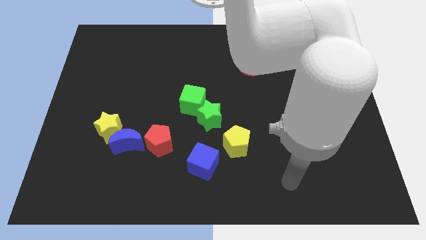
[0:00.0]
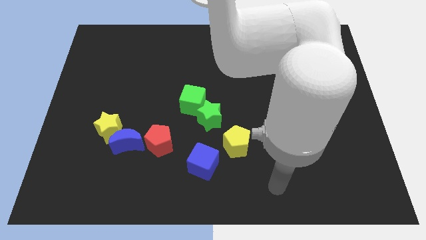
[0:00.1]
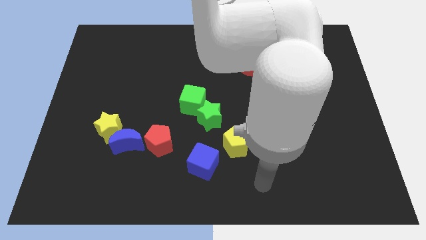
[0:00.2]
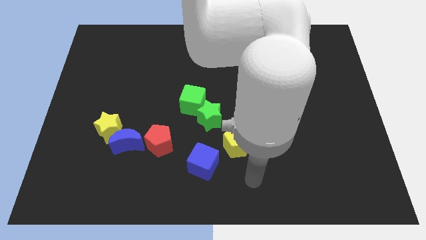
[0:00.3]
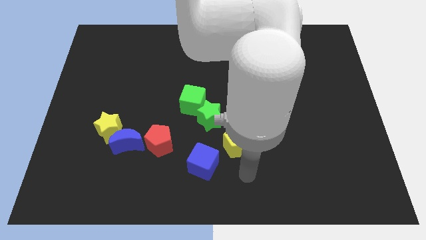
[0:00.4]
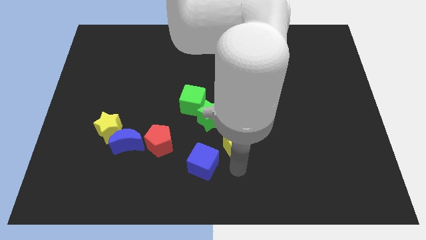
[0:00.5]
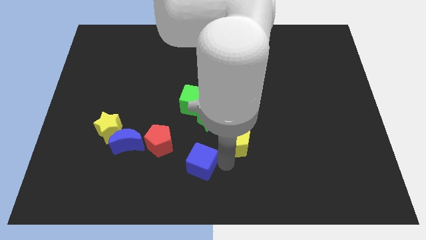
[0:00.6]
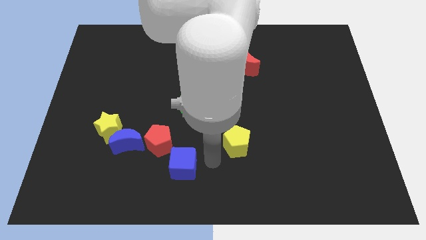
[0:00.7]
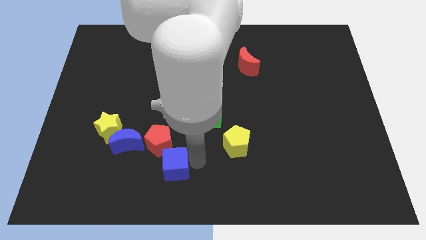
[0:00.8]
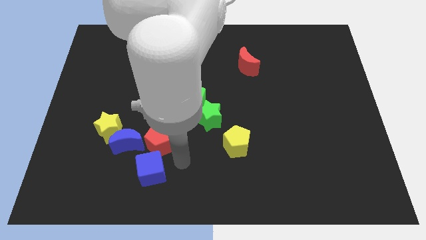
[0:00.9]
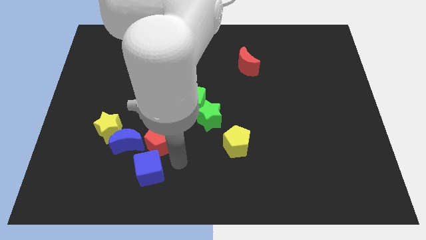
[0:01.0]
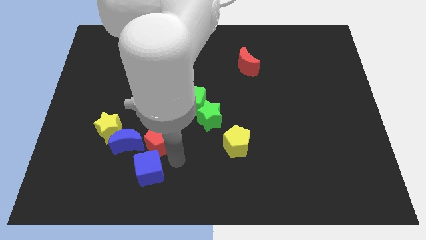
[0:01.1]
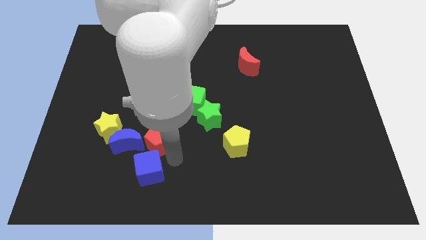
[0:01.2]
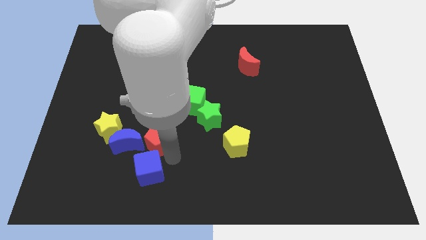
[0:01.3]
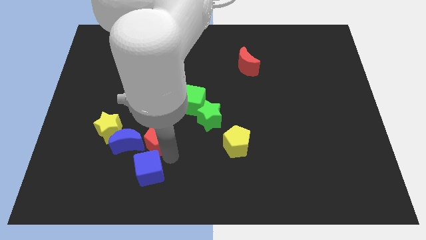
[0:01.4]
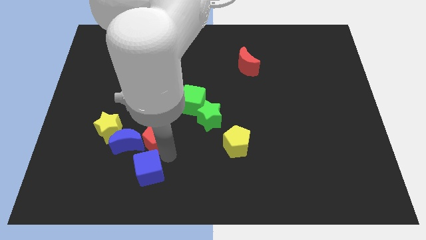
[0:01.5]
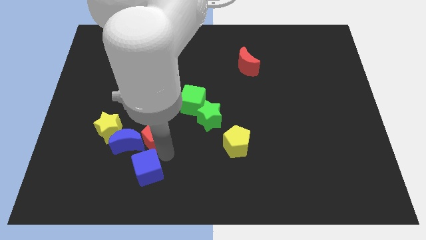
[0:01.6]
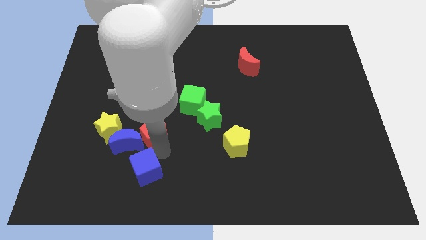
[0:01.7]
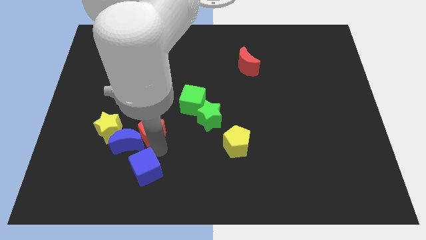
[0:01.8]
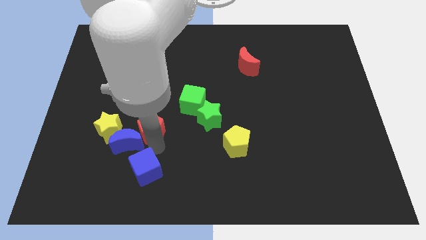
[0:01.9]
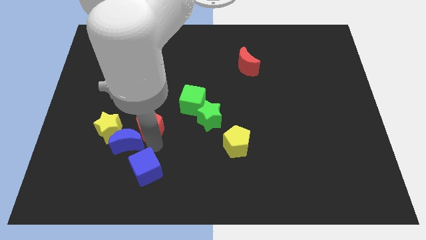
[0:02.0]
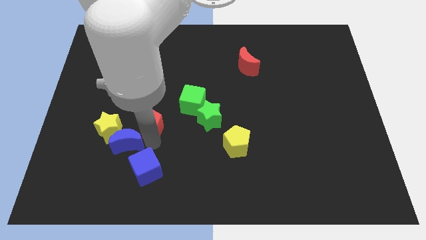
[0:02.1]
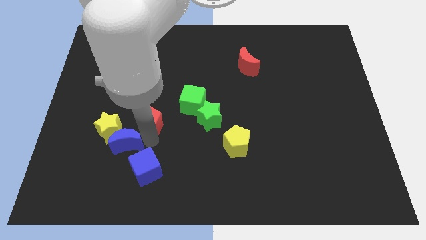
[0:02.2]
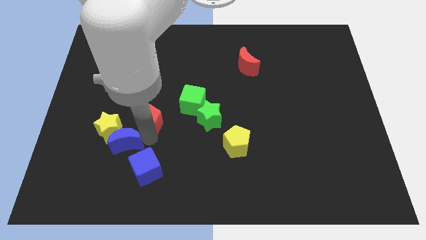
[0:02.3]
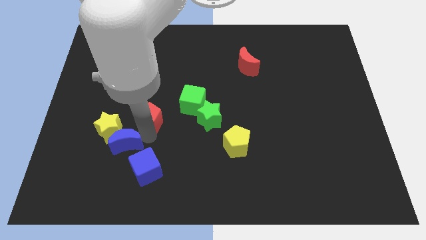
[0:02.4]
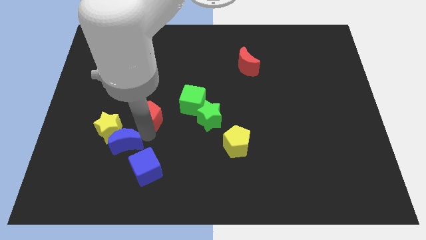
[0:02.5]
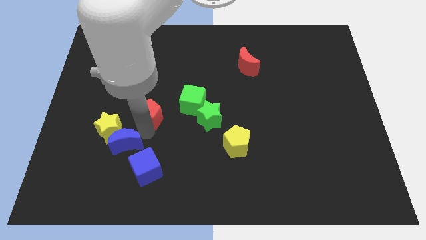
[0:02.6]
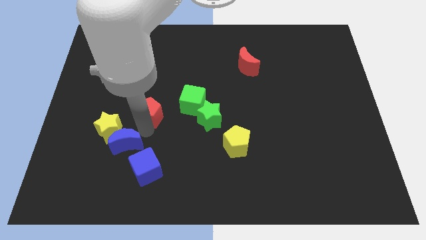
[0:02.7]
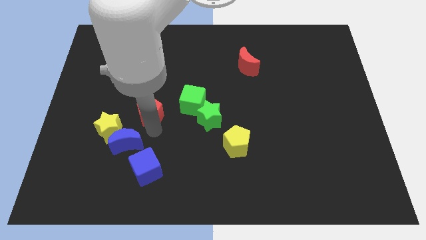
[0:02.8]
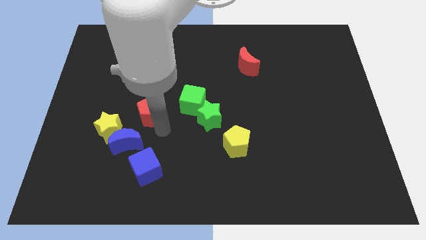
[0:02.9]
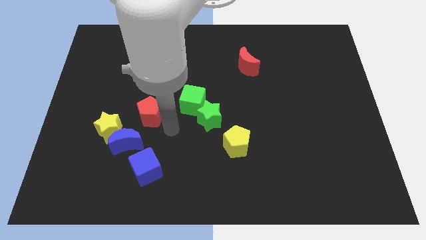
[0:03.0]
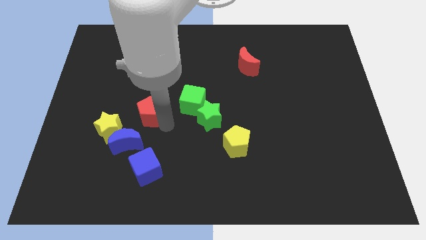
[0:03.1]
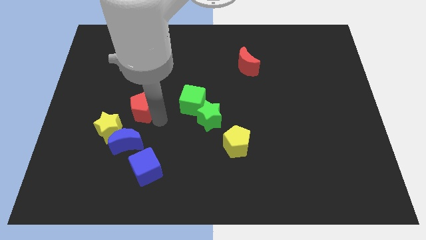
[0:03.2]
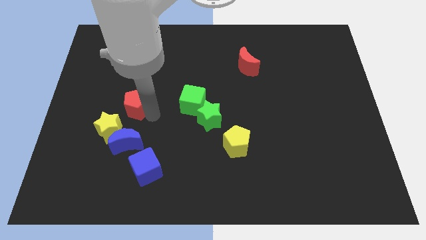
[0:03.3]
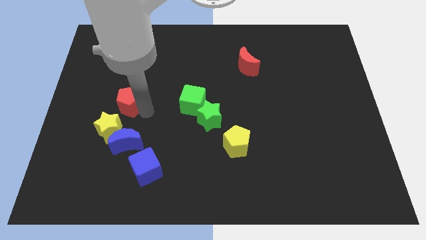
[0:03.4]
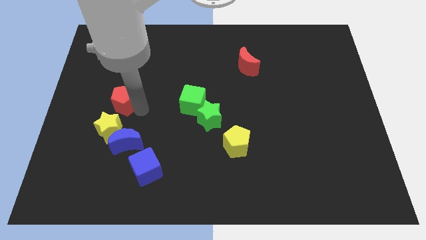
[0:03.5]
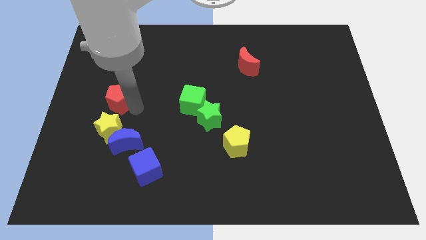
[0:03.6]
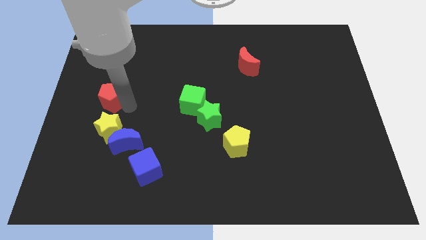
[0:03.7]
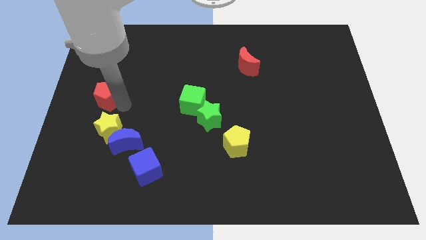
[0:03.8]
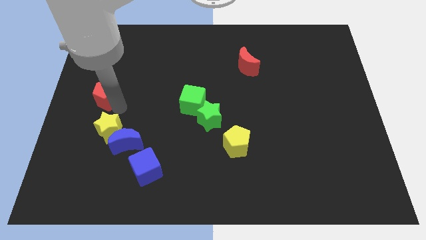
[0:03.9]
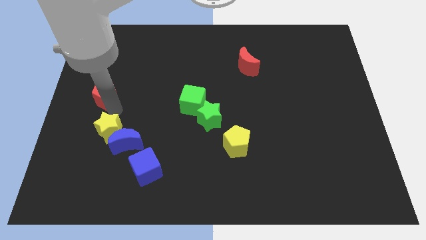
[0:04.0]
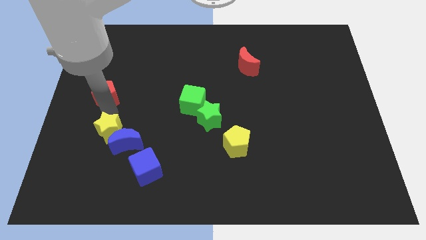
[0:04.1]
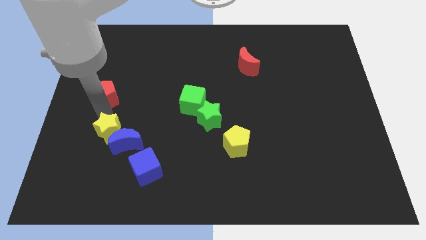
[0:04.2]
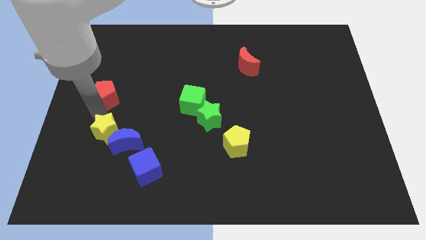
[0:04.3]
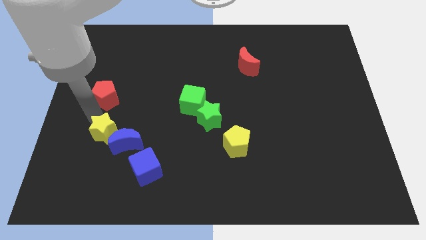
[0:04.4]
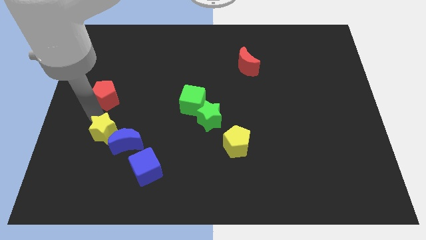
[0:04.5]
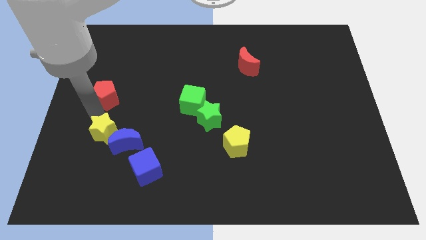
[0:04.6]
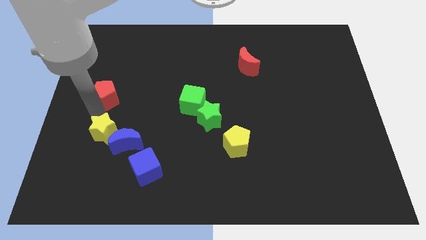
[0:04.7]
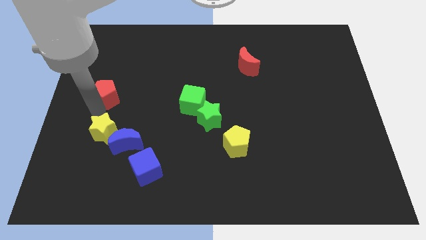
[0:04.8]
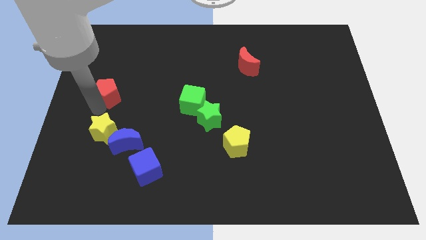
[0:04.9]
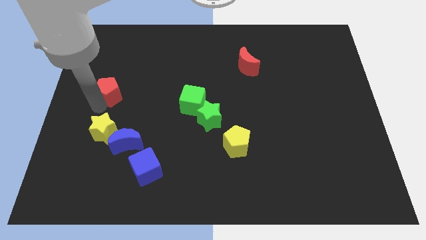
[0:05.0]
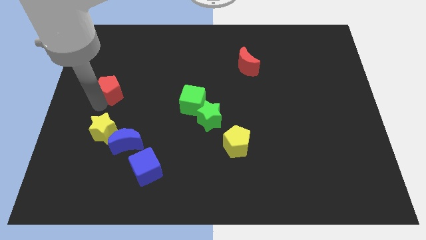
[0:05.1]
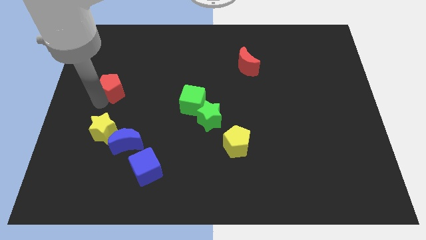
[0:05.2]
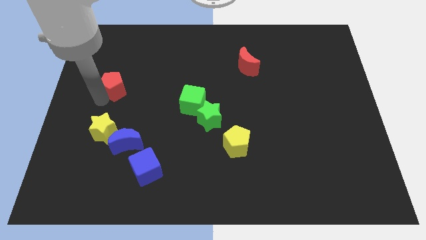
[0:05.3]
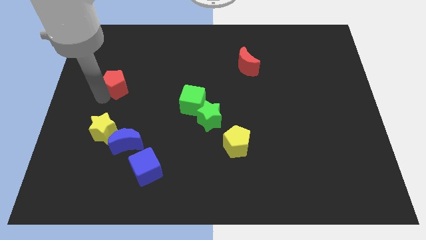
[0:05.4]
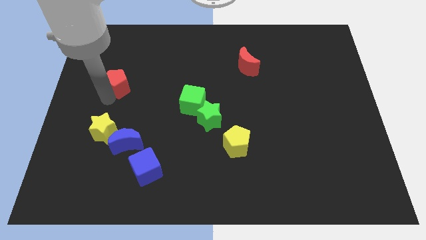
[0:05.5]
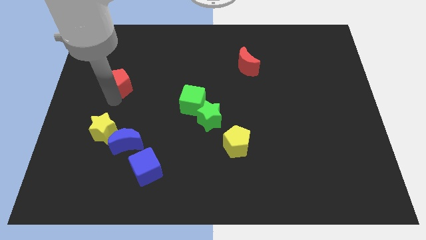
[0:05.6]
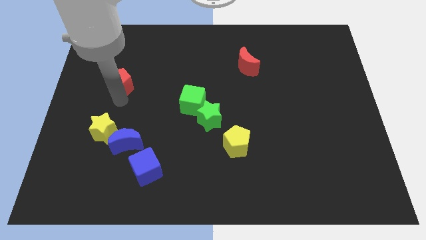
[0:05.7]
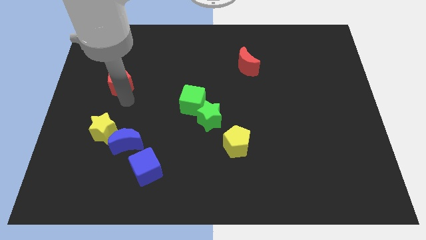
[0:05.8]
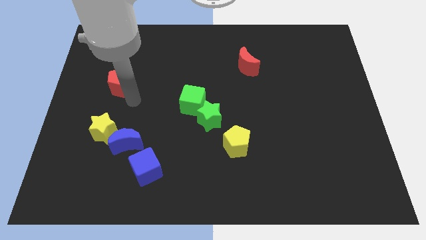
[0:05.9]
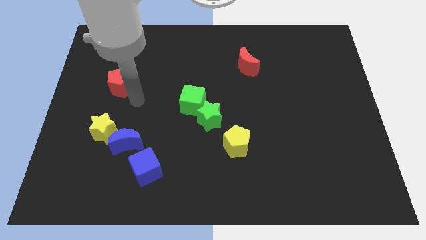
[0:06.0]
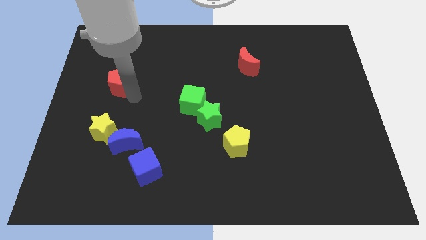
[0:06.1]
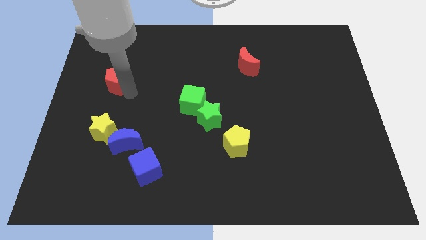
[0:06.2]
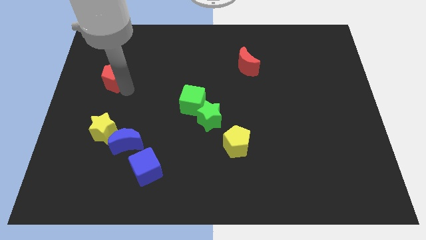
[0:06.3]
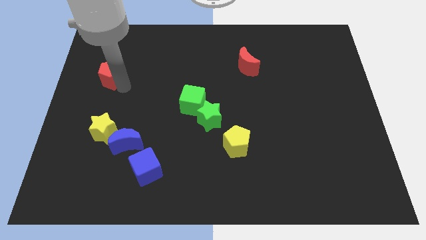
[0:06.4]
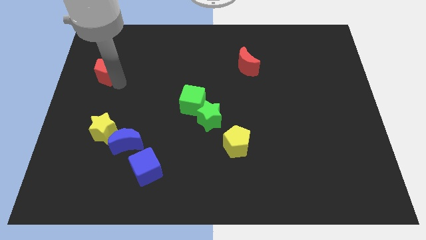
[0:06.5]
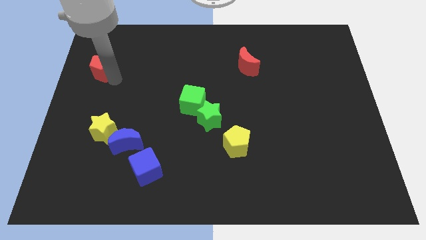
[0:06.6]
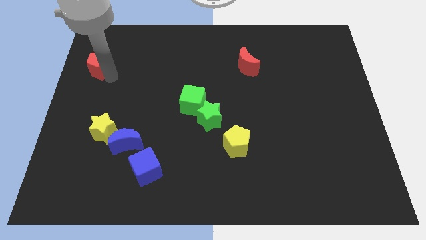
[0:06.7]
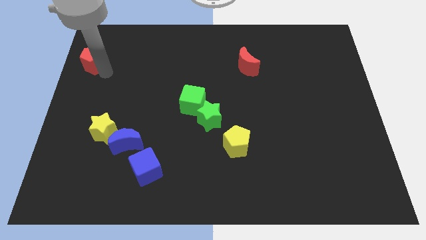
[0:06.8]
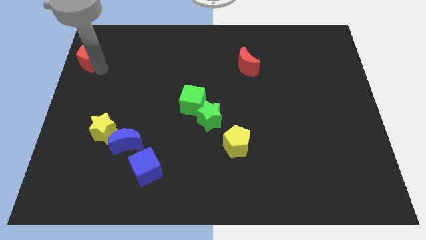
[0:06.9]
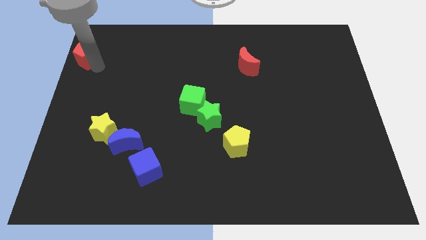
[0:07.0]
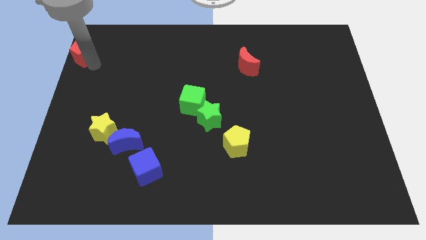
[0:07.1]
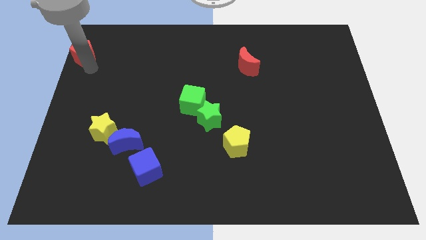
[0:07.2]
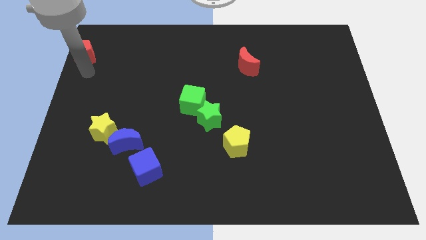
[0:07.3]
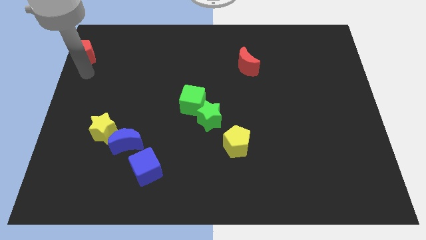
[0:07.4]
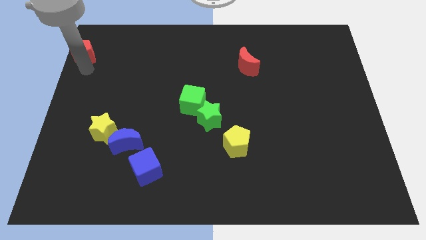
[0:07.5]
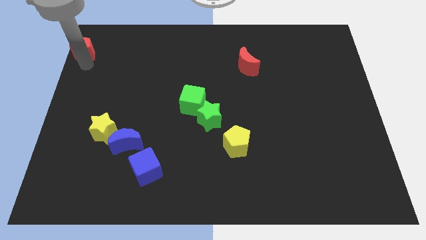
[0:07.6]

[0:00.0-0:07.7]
put the red pentagon to the top left corner
